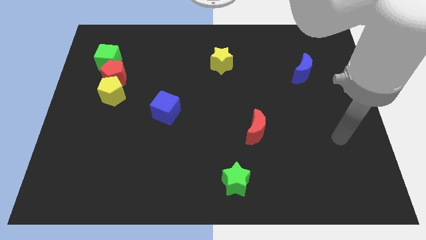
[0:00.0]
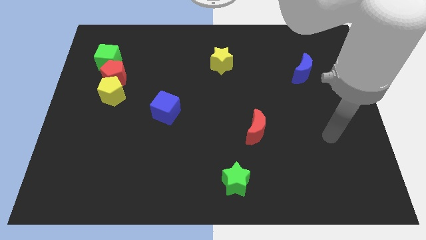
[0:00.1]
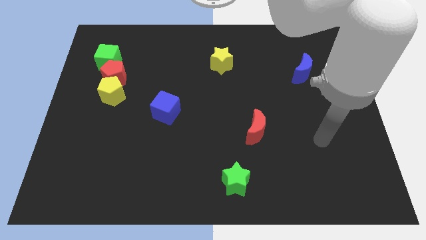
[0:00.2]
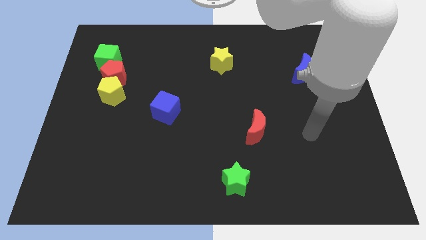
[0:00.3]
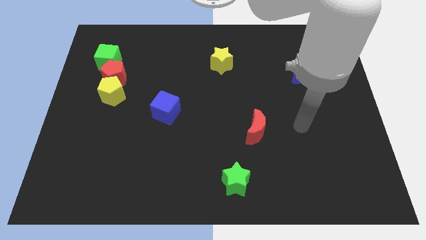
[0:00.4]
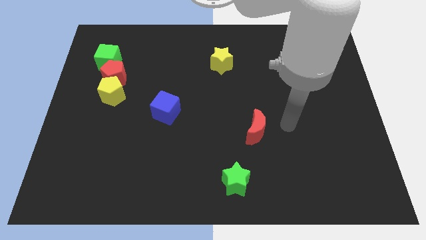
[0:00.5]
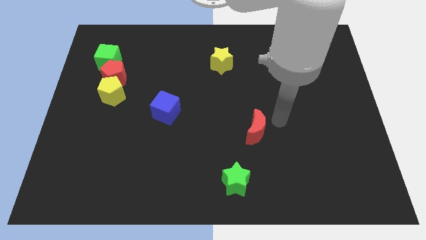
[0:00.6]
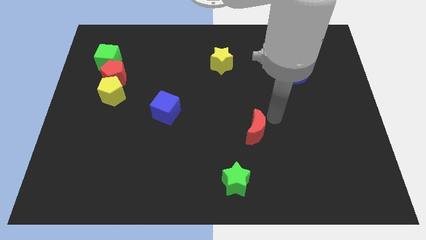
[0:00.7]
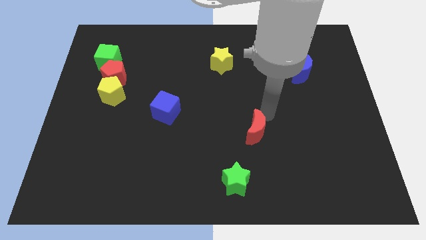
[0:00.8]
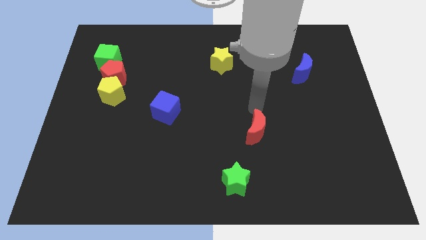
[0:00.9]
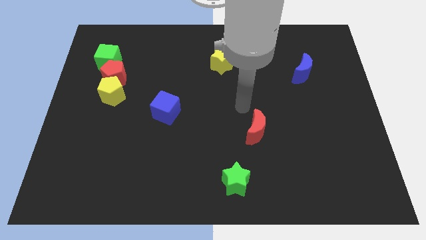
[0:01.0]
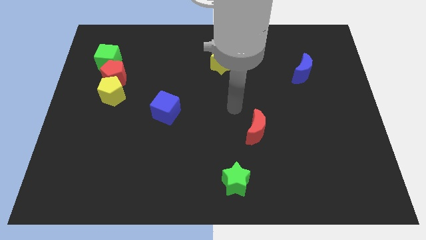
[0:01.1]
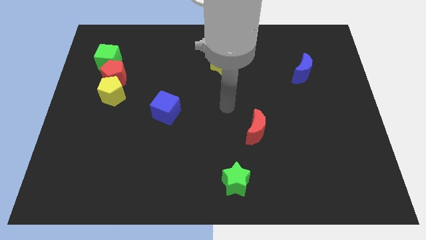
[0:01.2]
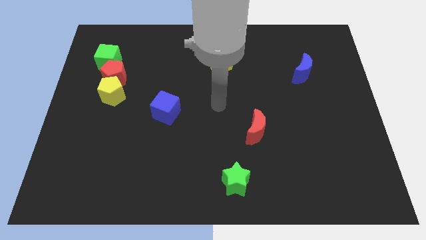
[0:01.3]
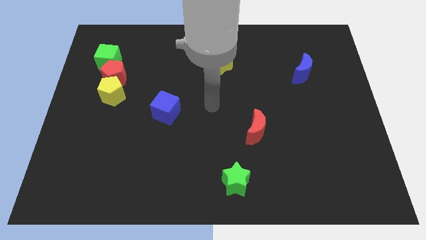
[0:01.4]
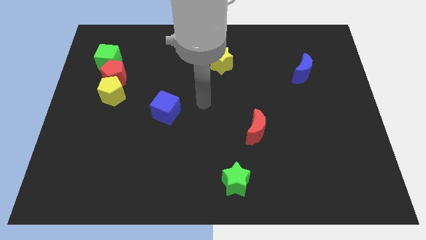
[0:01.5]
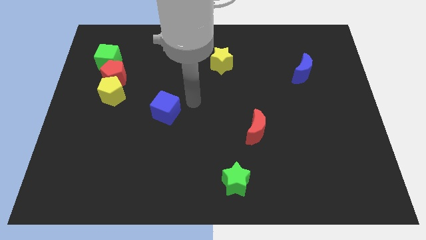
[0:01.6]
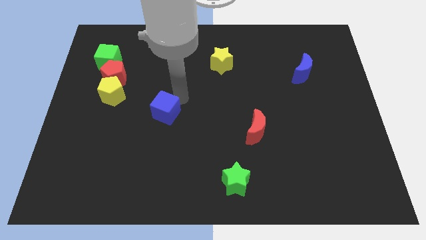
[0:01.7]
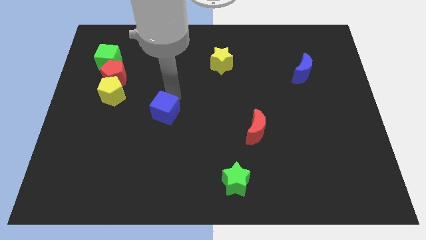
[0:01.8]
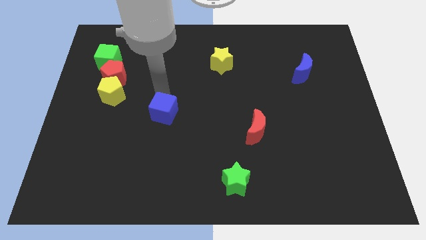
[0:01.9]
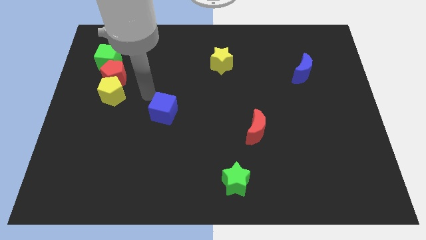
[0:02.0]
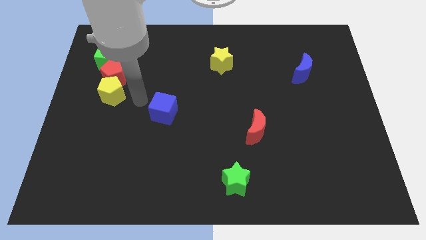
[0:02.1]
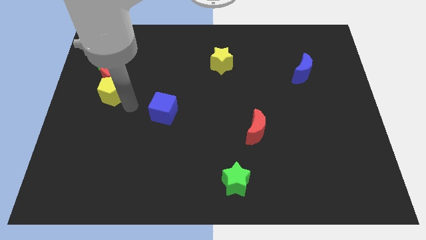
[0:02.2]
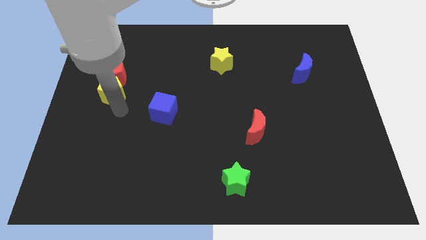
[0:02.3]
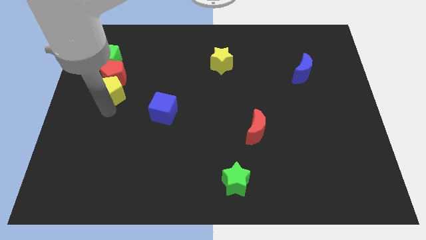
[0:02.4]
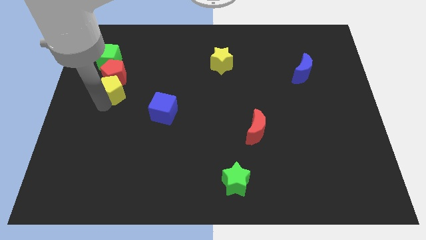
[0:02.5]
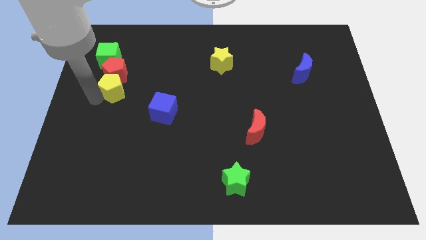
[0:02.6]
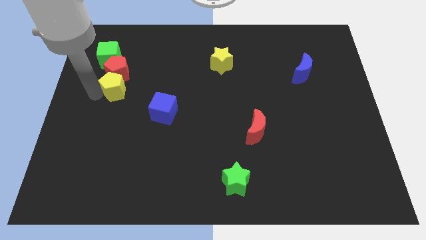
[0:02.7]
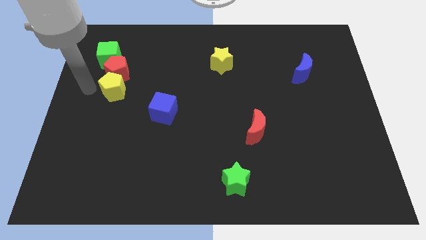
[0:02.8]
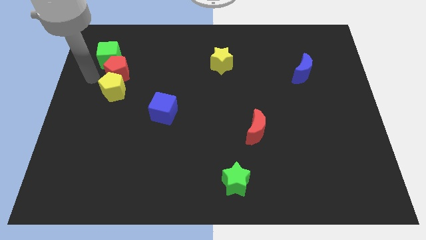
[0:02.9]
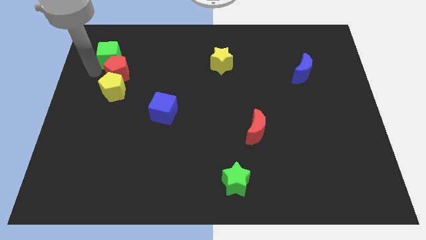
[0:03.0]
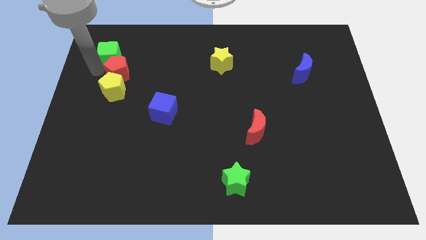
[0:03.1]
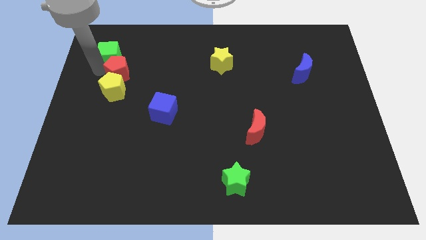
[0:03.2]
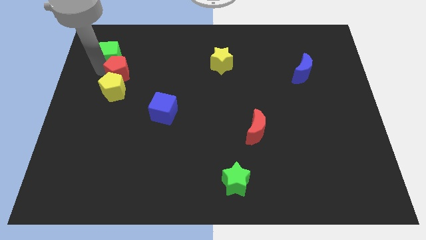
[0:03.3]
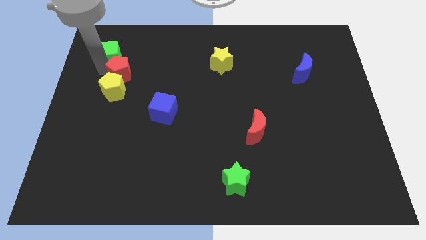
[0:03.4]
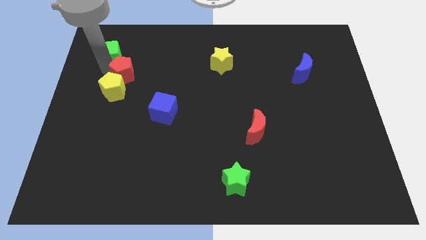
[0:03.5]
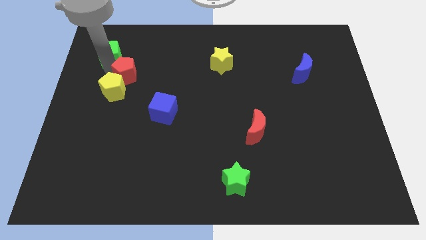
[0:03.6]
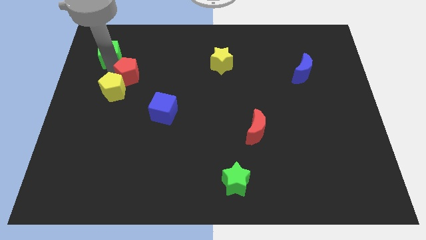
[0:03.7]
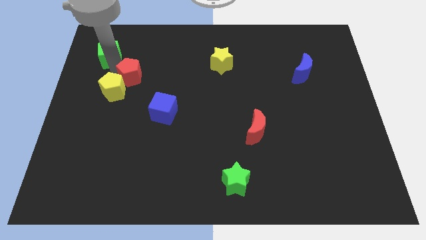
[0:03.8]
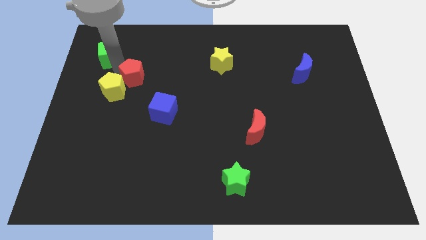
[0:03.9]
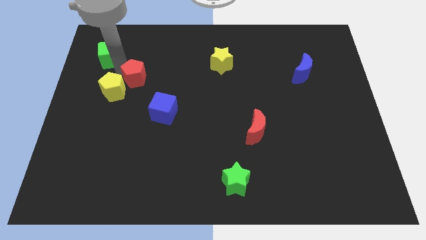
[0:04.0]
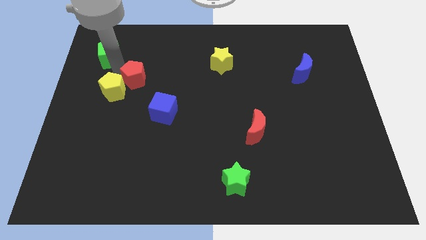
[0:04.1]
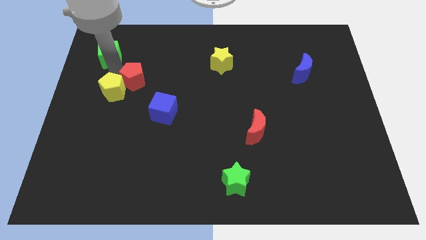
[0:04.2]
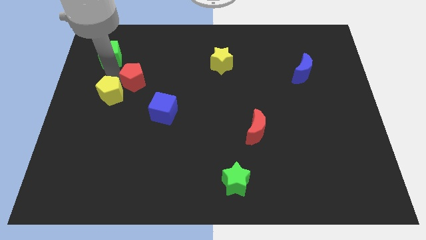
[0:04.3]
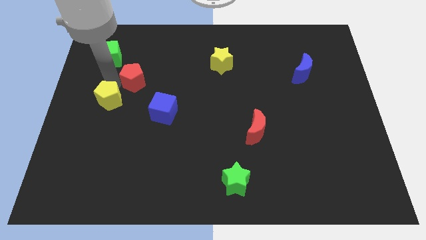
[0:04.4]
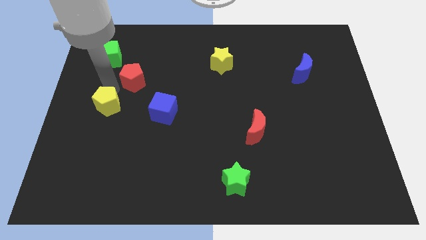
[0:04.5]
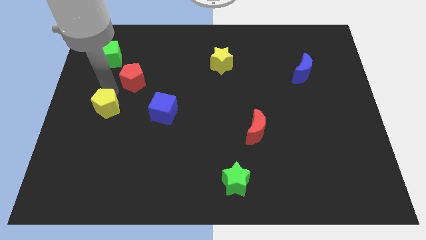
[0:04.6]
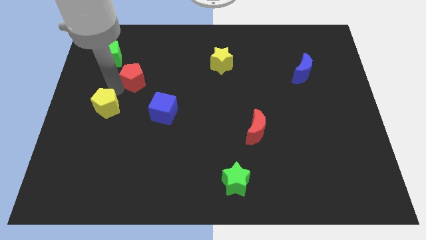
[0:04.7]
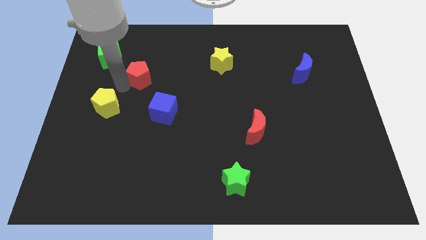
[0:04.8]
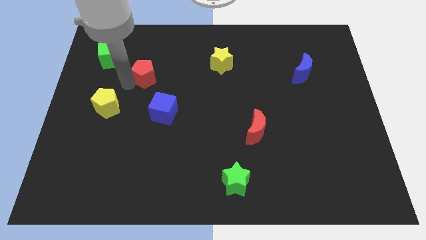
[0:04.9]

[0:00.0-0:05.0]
push the red pentagon somewhat to the right

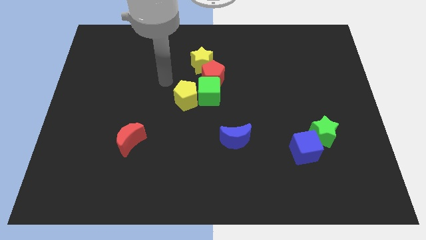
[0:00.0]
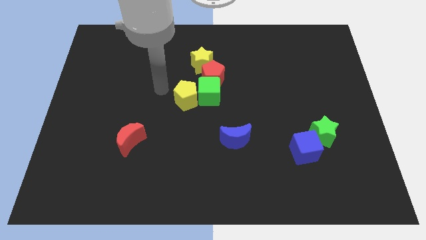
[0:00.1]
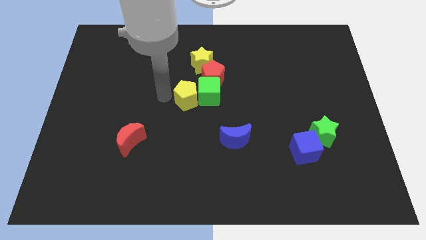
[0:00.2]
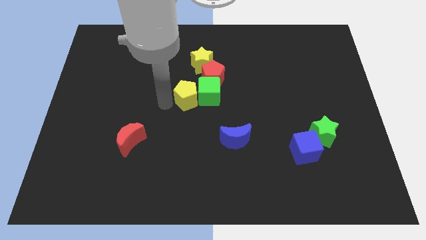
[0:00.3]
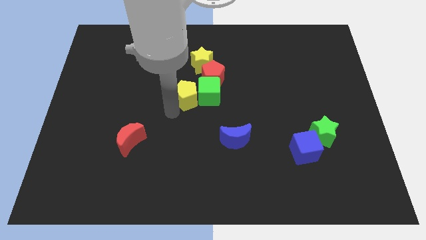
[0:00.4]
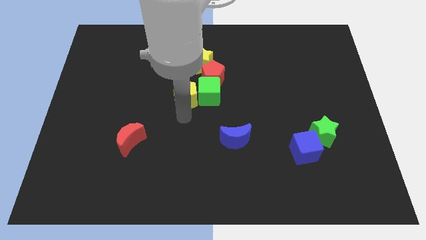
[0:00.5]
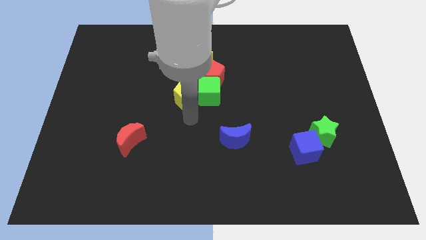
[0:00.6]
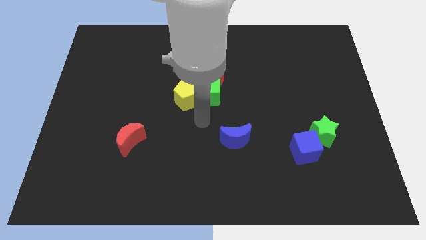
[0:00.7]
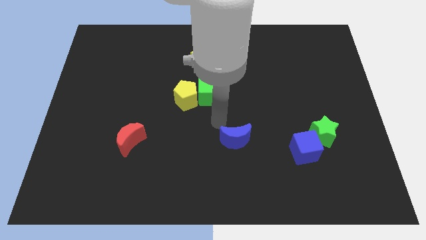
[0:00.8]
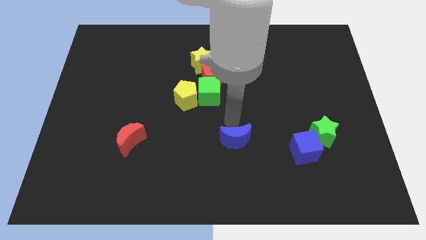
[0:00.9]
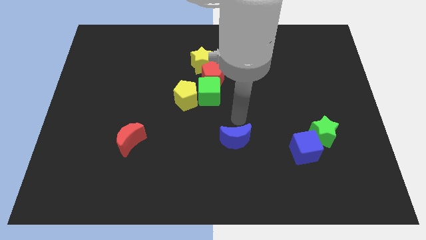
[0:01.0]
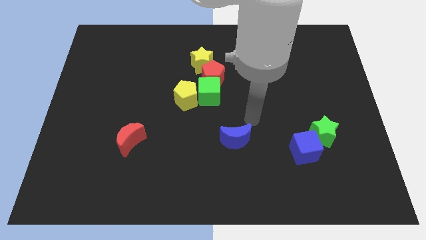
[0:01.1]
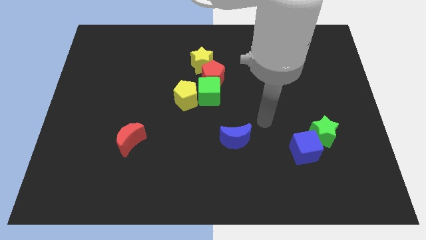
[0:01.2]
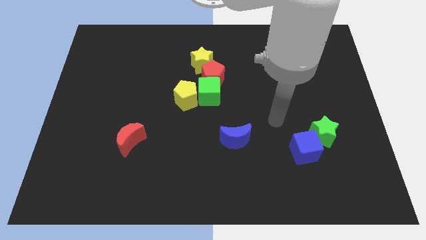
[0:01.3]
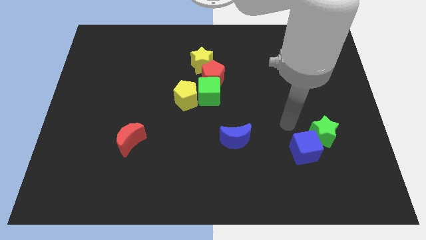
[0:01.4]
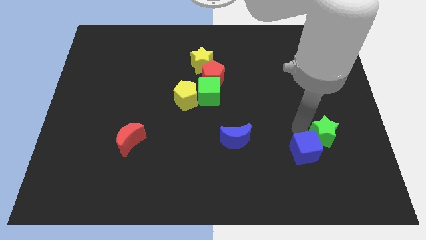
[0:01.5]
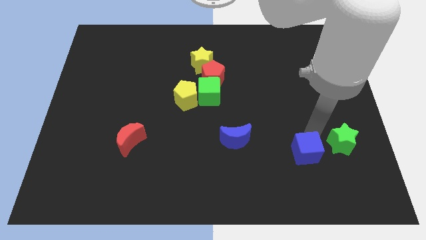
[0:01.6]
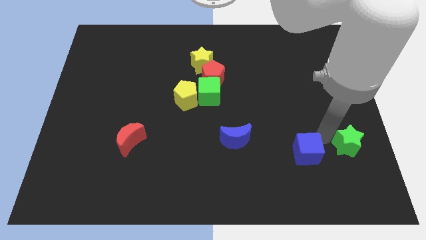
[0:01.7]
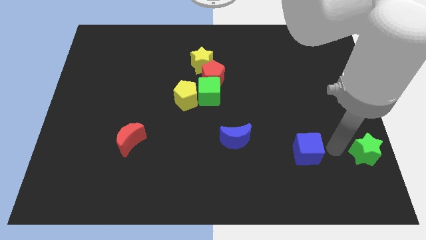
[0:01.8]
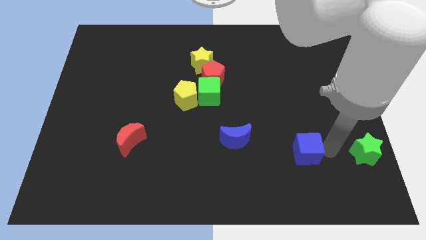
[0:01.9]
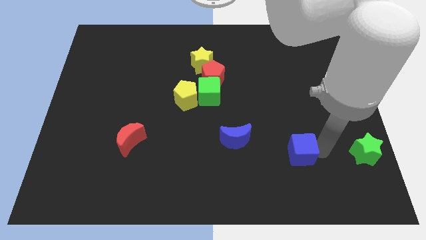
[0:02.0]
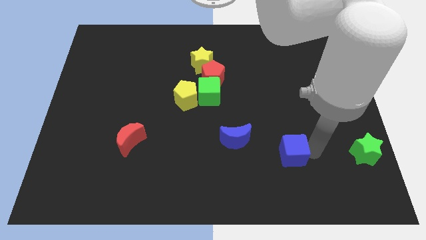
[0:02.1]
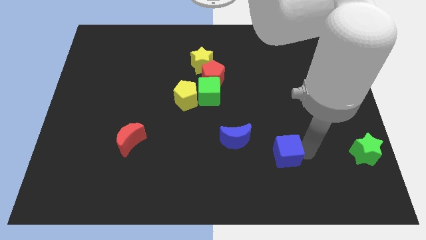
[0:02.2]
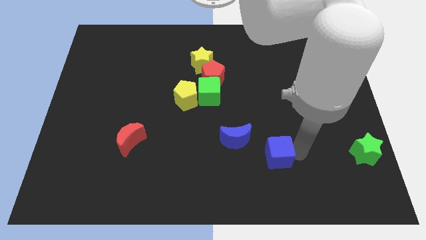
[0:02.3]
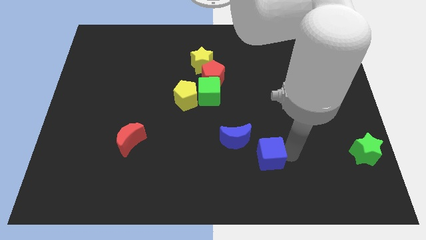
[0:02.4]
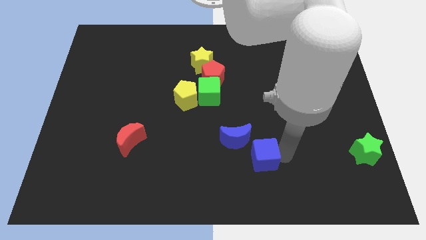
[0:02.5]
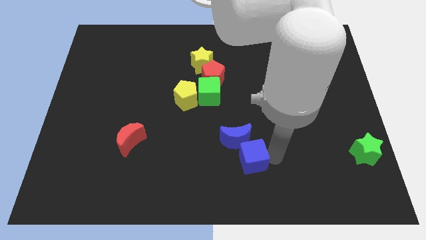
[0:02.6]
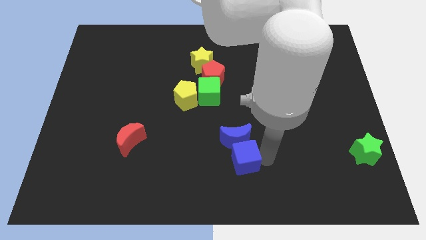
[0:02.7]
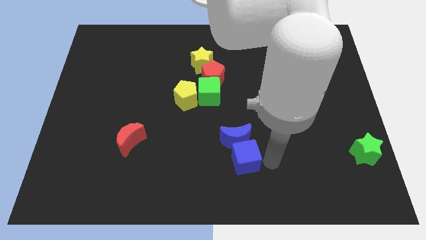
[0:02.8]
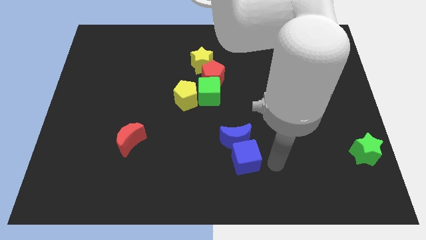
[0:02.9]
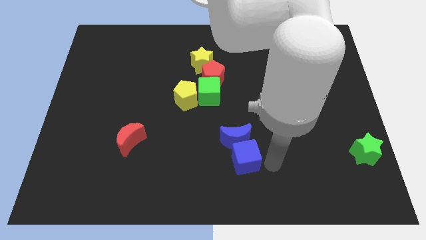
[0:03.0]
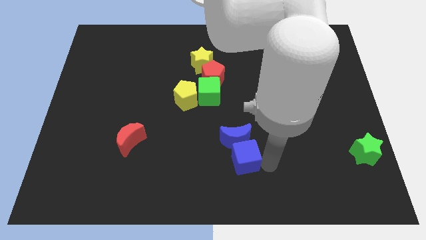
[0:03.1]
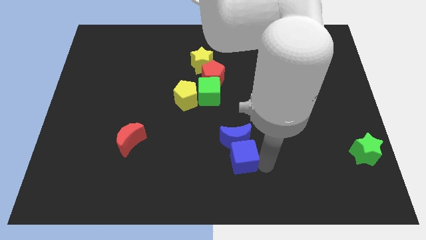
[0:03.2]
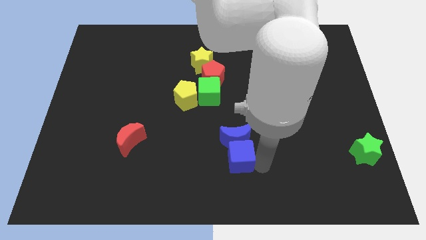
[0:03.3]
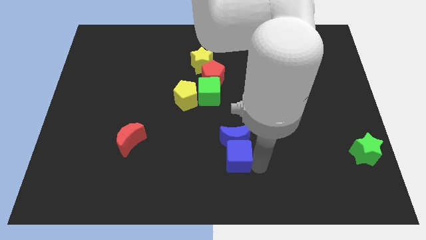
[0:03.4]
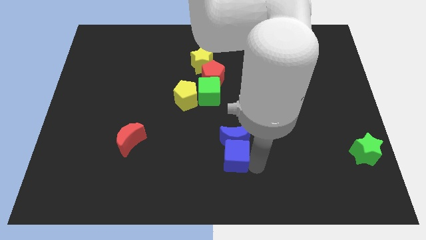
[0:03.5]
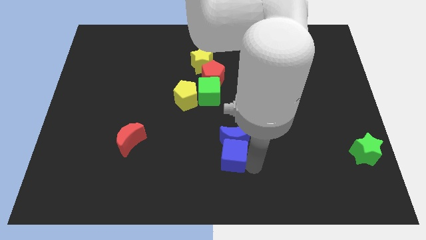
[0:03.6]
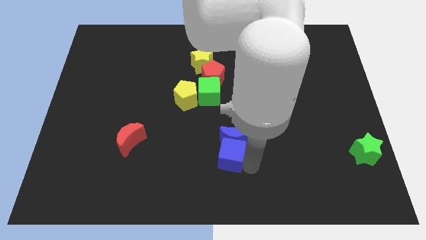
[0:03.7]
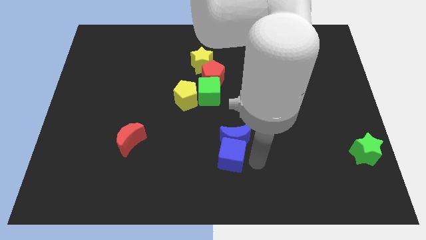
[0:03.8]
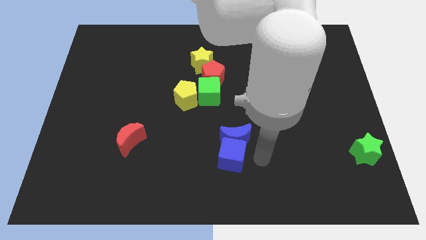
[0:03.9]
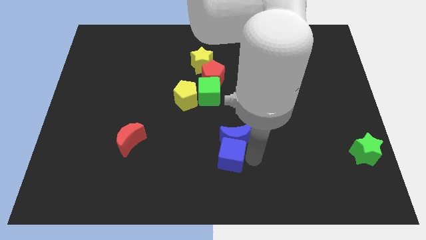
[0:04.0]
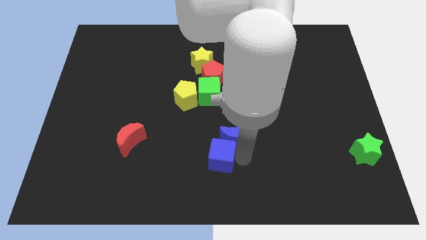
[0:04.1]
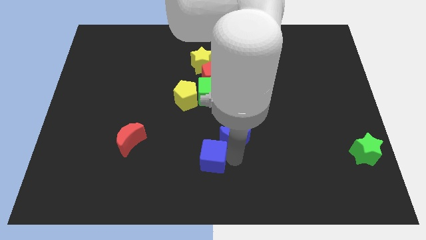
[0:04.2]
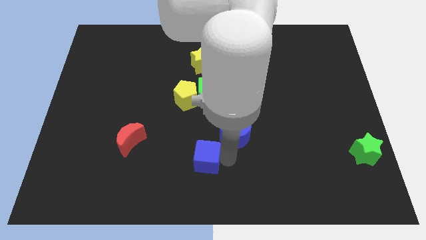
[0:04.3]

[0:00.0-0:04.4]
slide the blue cube to the left
